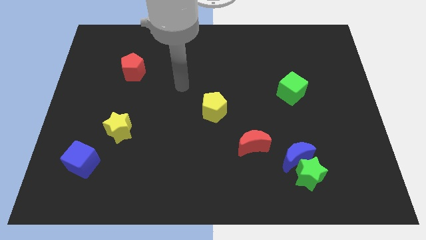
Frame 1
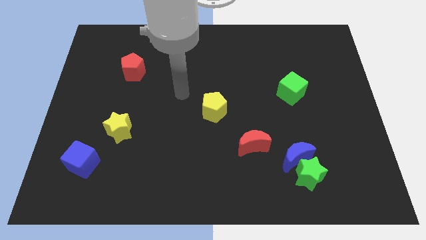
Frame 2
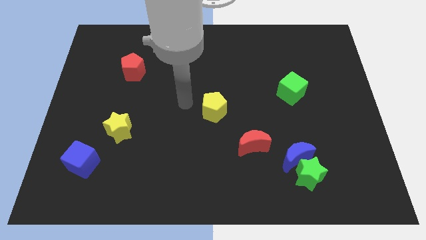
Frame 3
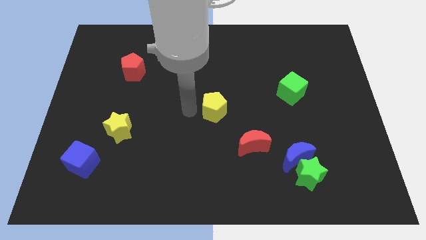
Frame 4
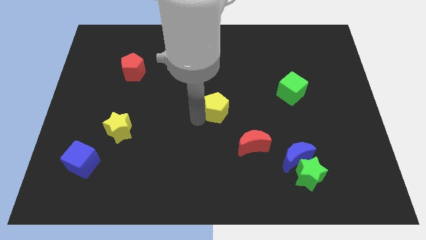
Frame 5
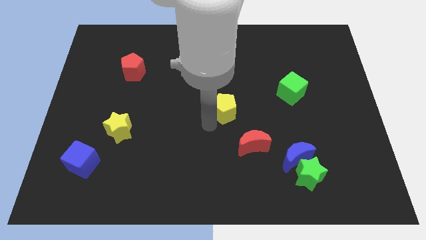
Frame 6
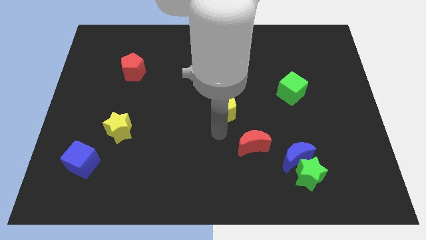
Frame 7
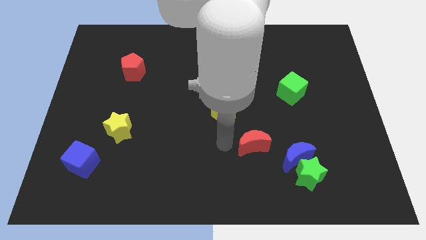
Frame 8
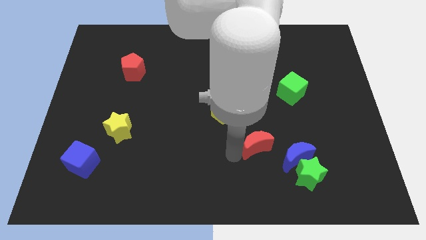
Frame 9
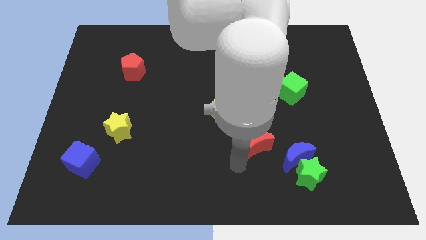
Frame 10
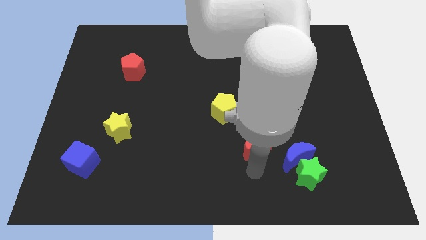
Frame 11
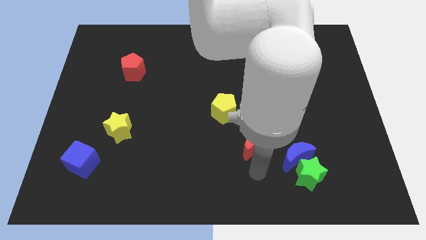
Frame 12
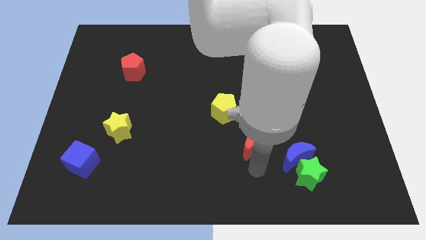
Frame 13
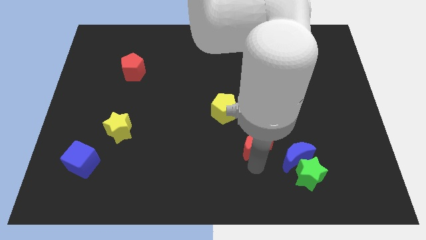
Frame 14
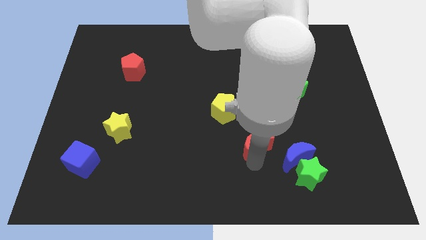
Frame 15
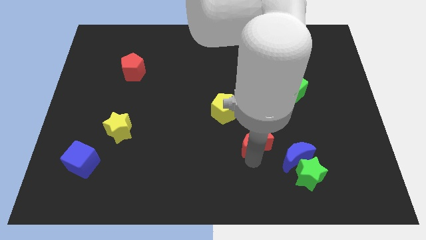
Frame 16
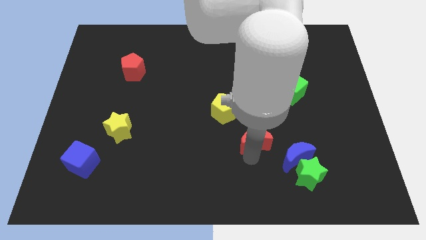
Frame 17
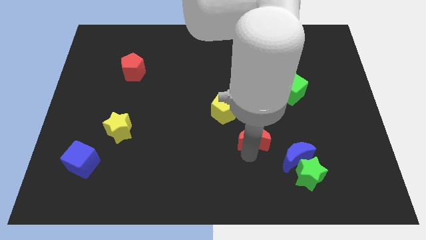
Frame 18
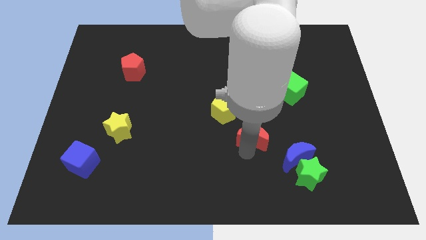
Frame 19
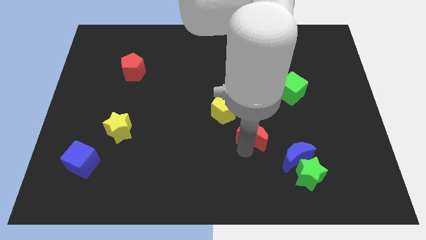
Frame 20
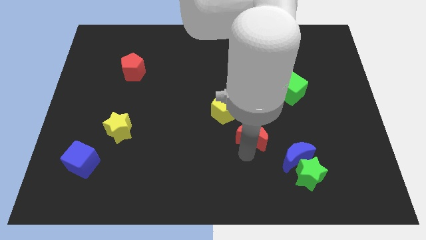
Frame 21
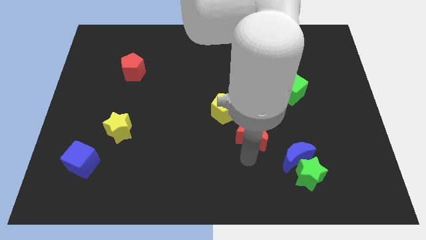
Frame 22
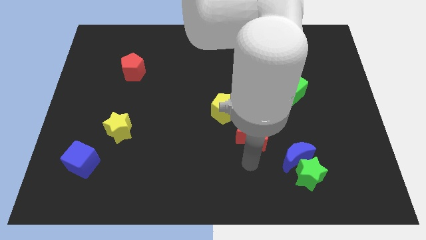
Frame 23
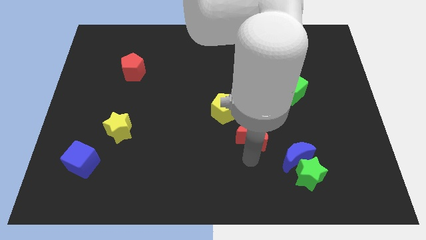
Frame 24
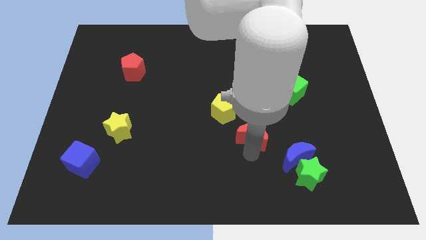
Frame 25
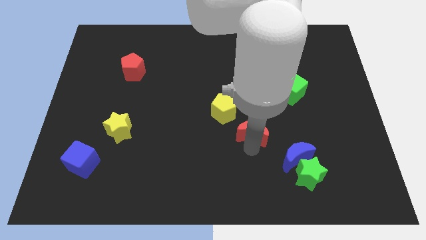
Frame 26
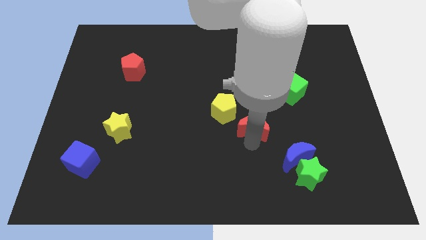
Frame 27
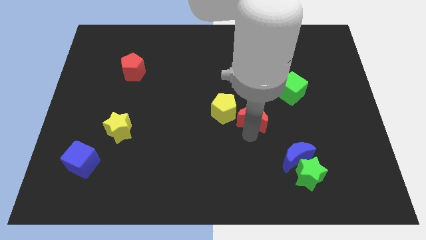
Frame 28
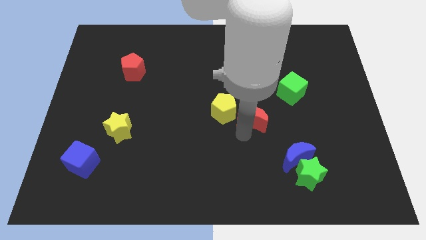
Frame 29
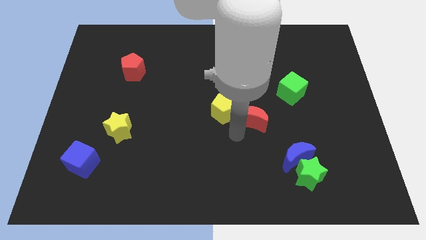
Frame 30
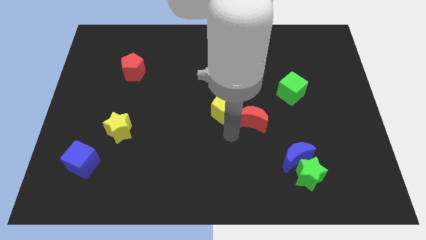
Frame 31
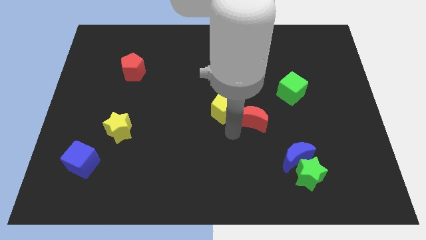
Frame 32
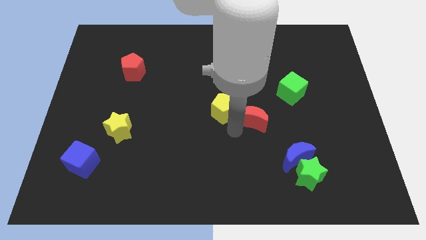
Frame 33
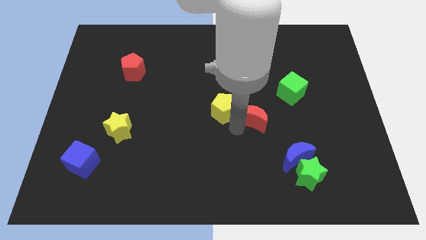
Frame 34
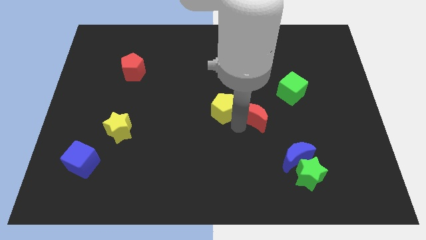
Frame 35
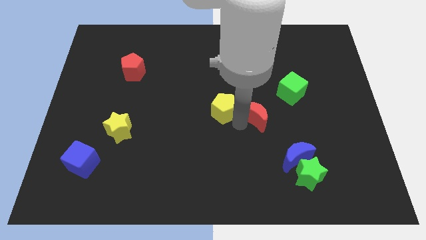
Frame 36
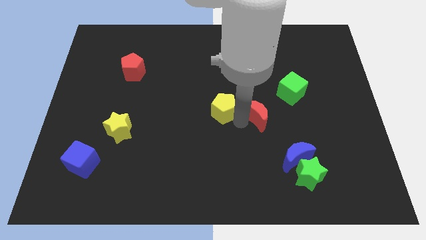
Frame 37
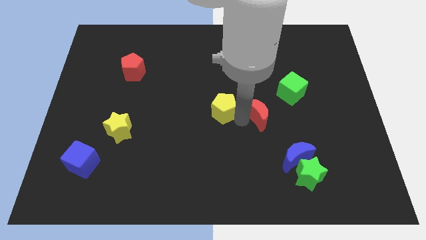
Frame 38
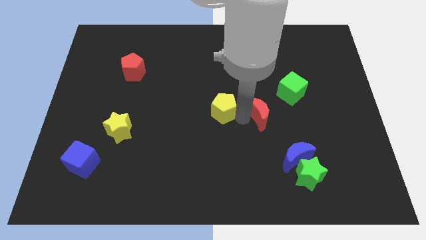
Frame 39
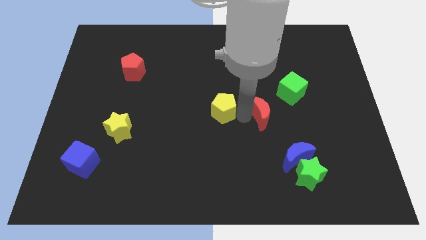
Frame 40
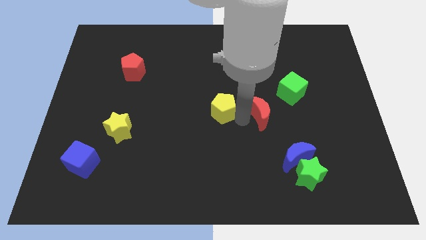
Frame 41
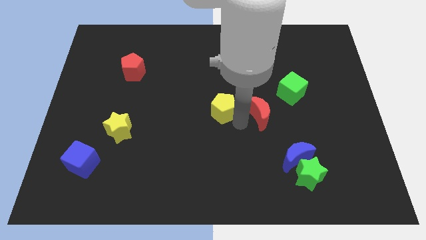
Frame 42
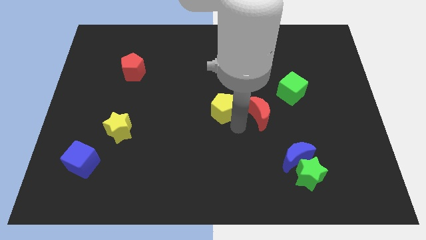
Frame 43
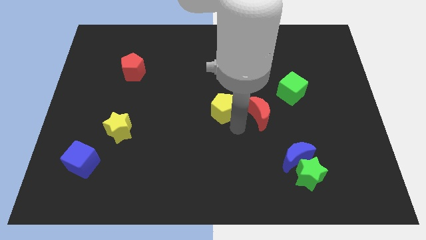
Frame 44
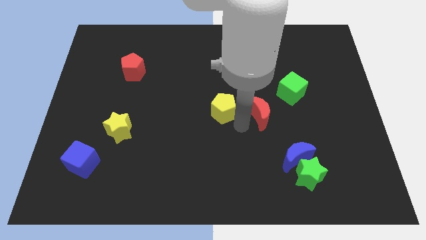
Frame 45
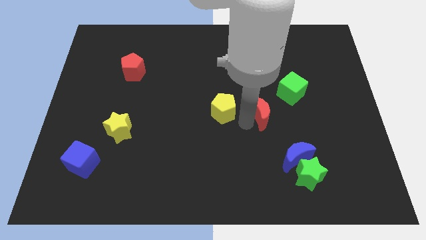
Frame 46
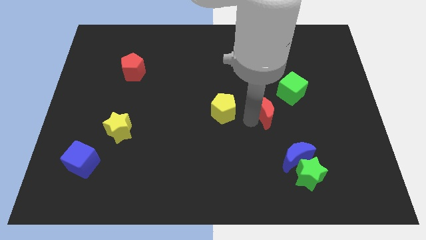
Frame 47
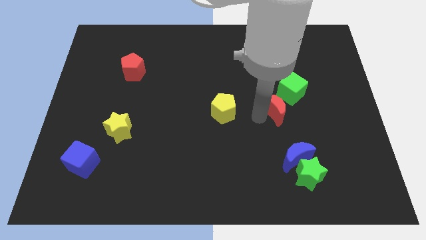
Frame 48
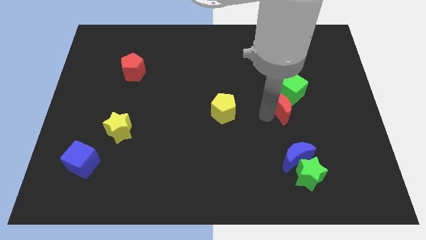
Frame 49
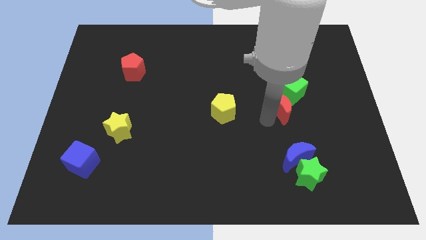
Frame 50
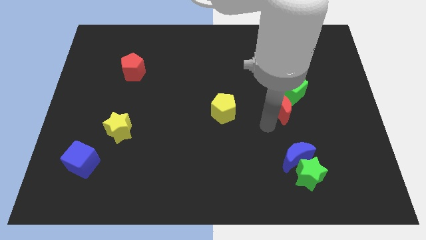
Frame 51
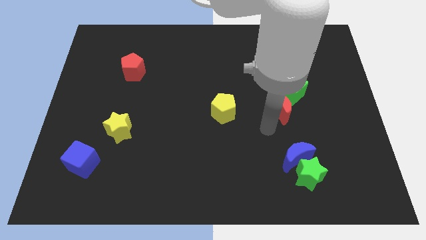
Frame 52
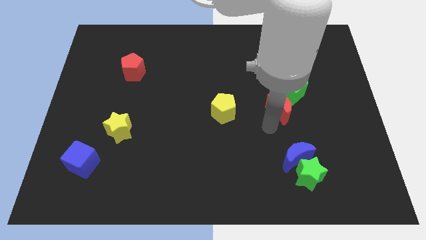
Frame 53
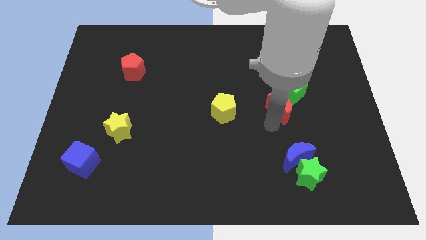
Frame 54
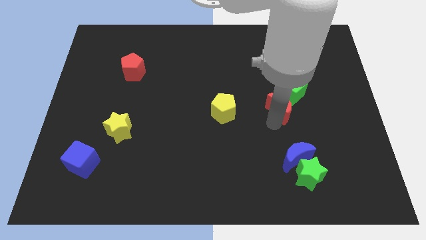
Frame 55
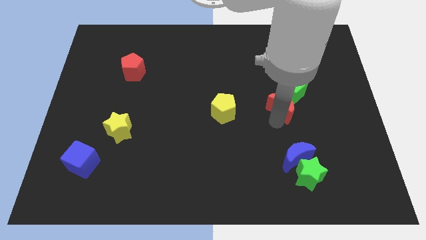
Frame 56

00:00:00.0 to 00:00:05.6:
push the red moon towards the green cube
